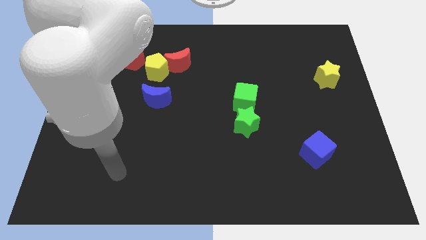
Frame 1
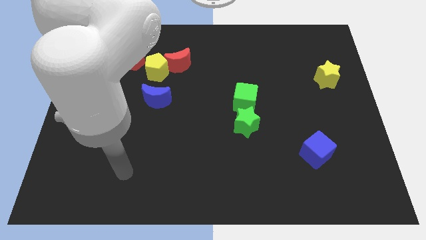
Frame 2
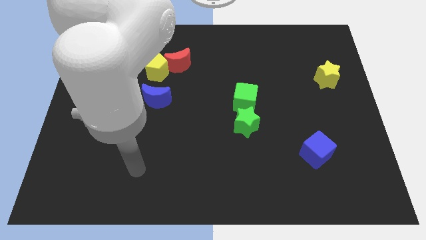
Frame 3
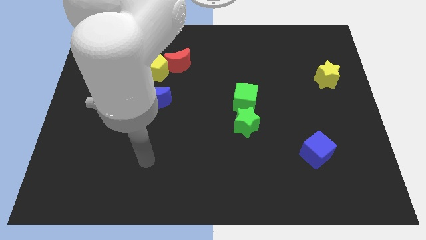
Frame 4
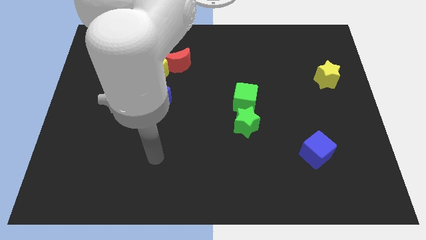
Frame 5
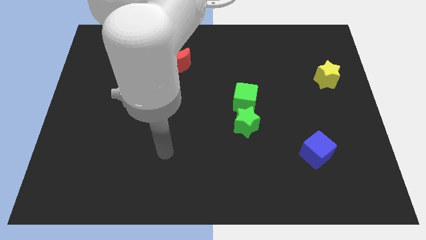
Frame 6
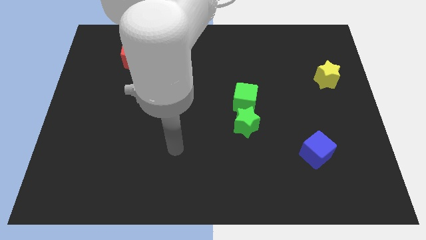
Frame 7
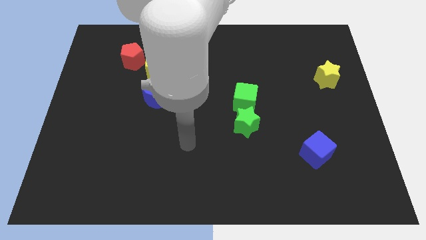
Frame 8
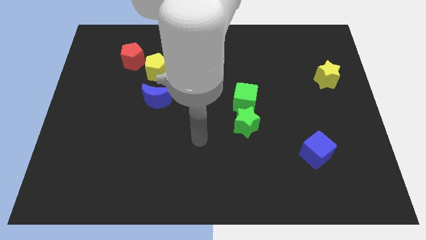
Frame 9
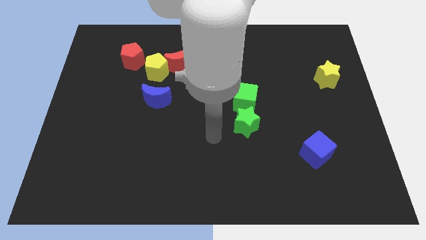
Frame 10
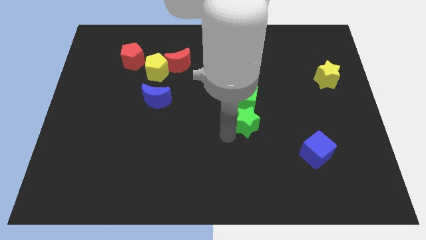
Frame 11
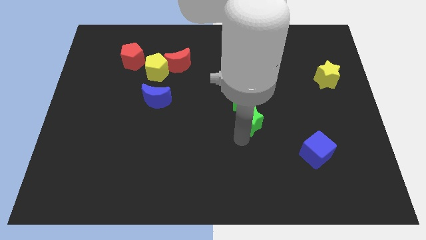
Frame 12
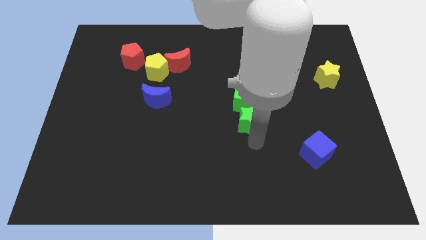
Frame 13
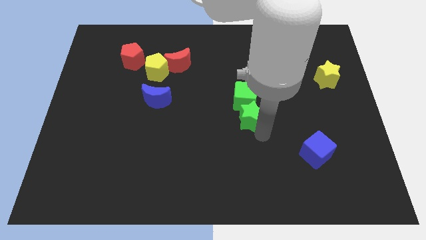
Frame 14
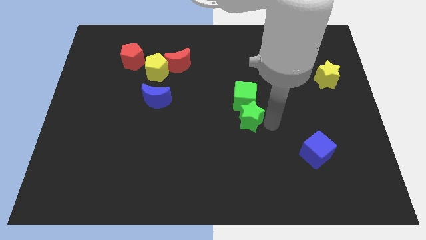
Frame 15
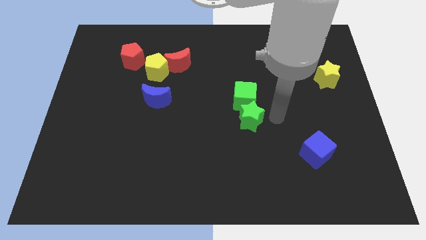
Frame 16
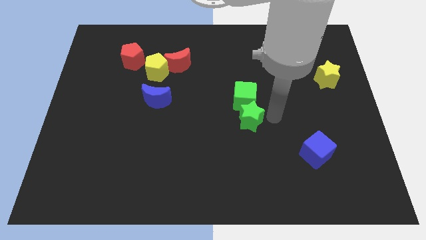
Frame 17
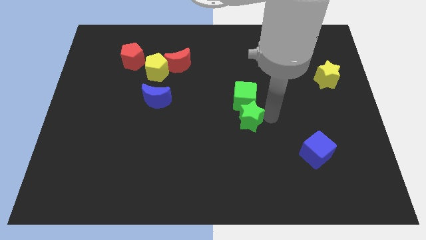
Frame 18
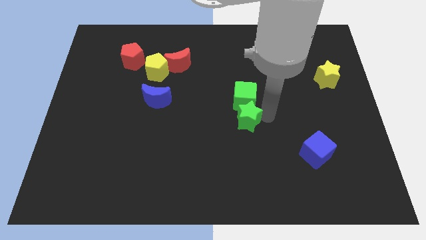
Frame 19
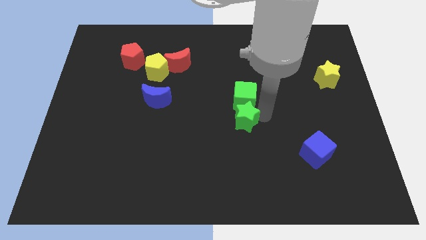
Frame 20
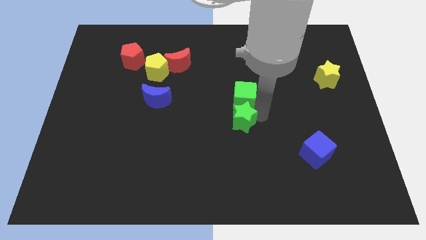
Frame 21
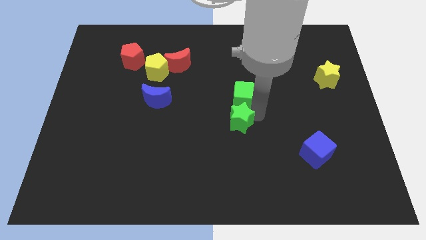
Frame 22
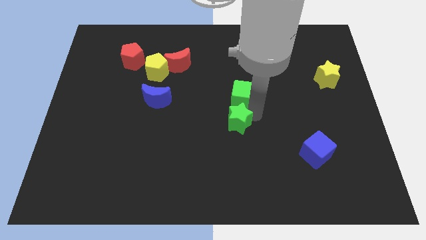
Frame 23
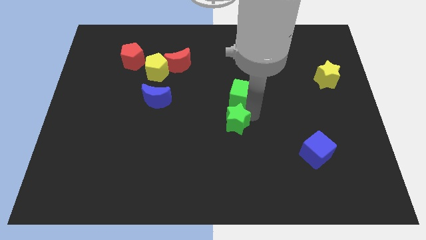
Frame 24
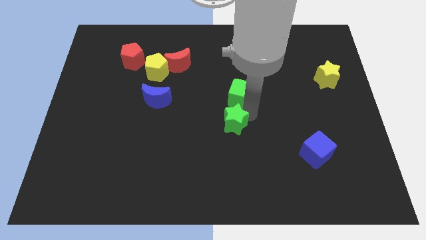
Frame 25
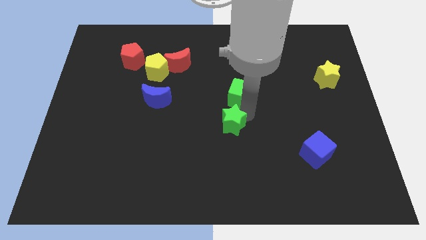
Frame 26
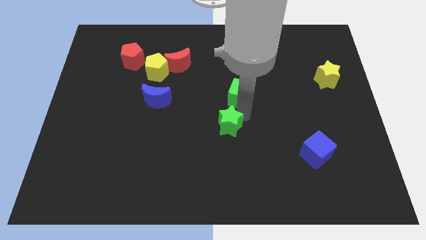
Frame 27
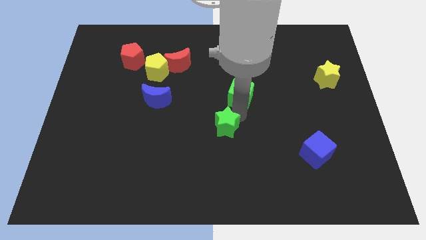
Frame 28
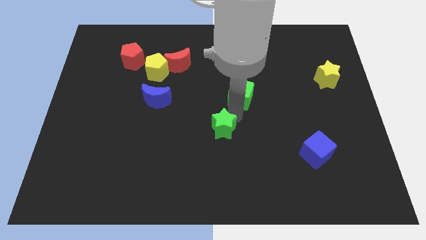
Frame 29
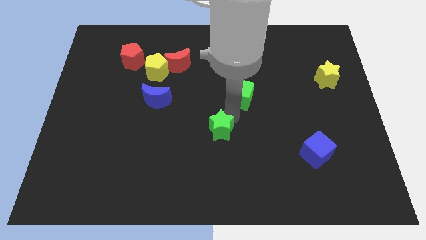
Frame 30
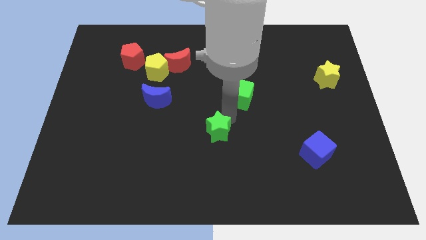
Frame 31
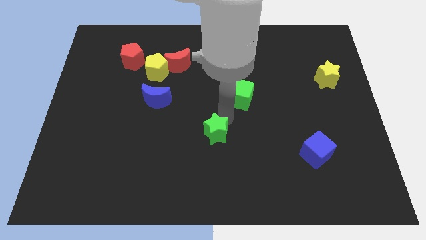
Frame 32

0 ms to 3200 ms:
slightly move the green star to the left

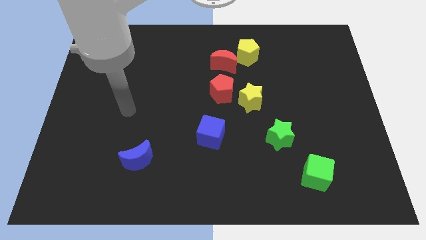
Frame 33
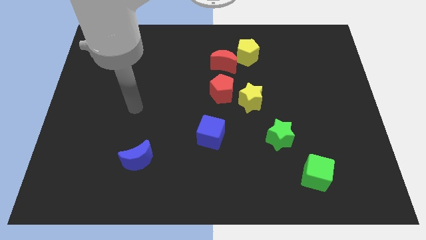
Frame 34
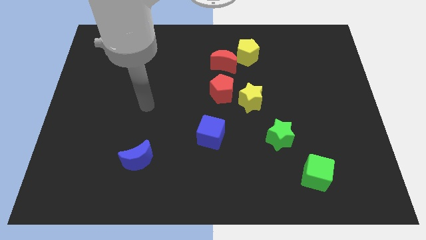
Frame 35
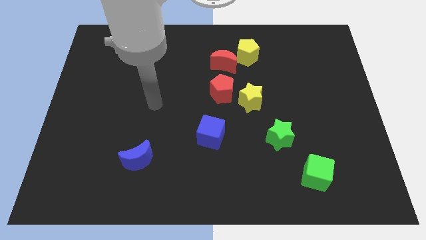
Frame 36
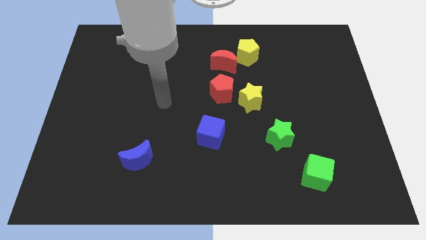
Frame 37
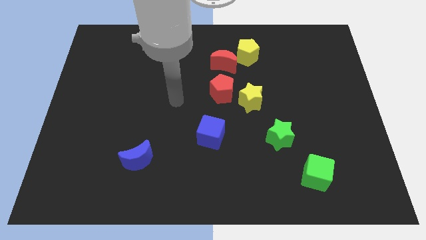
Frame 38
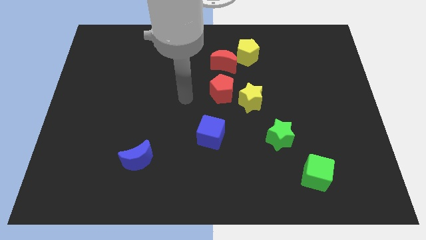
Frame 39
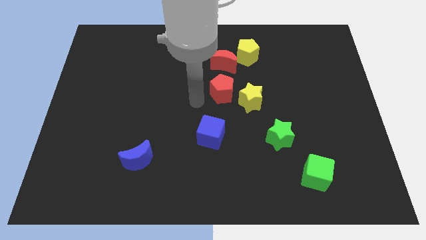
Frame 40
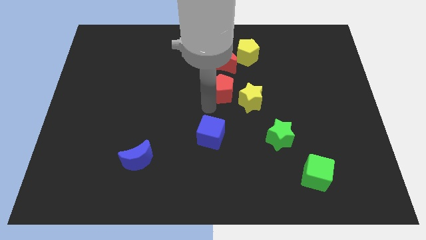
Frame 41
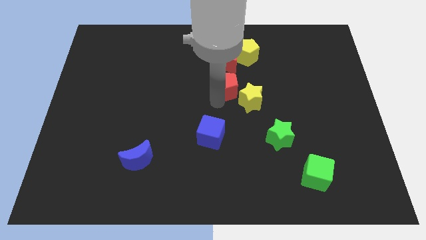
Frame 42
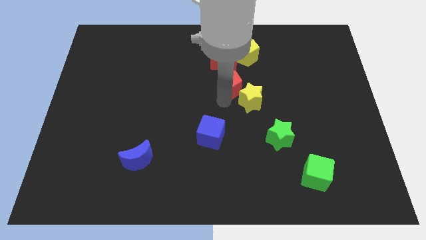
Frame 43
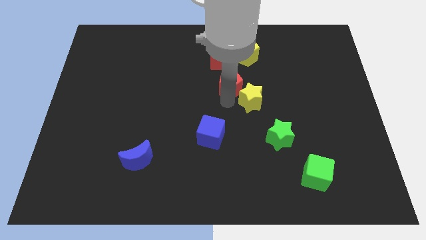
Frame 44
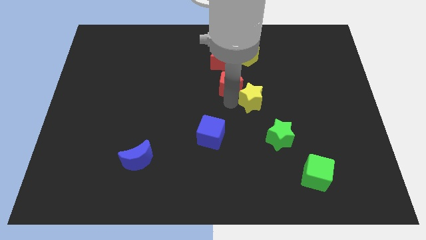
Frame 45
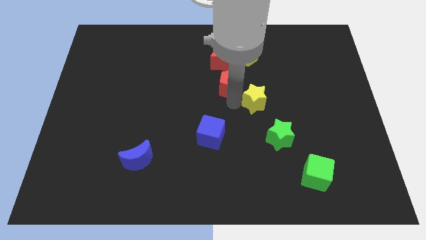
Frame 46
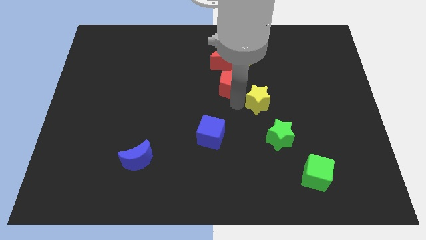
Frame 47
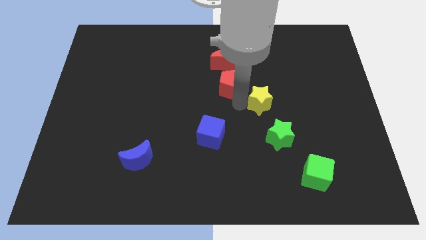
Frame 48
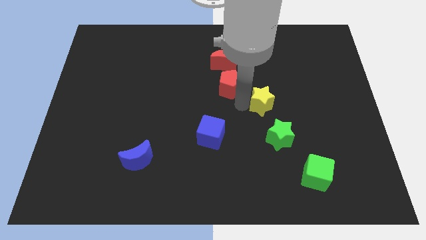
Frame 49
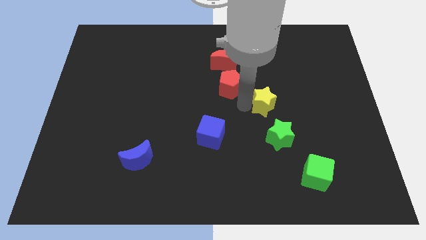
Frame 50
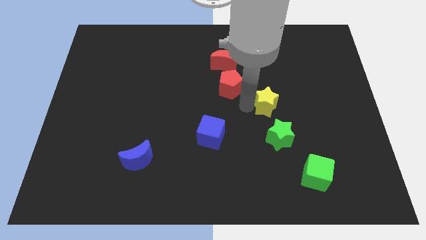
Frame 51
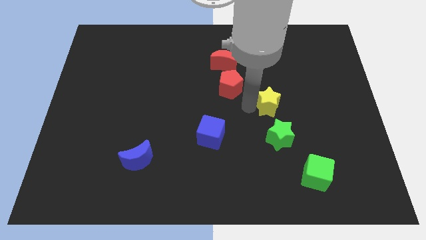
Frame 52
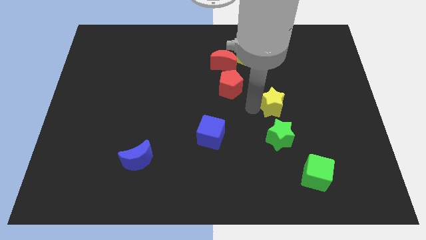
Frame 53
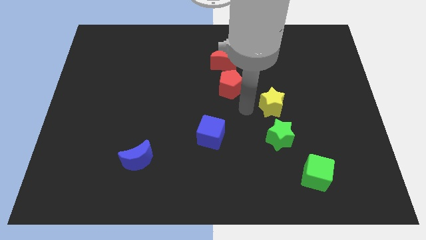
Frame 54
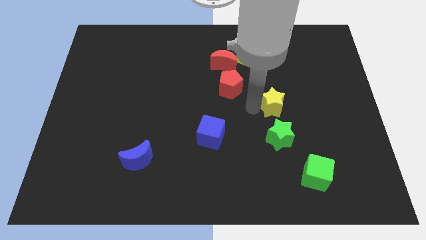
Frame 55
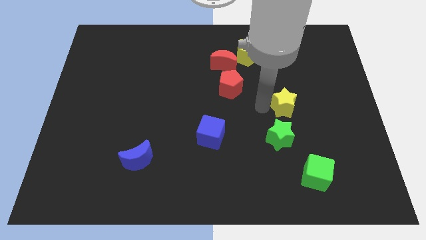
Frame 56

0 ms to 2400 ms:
move the yellow star a little right

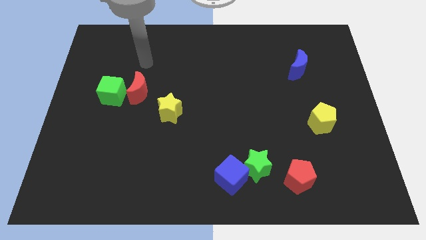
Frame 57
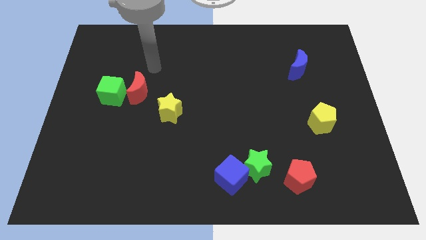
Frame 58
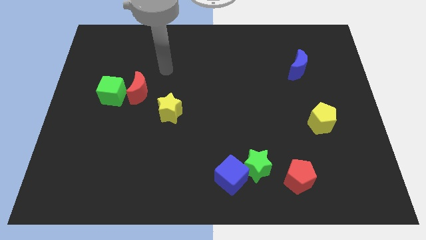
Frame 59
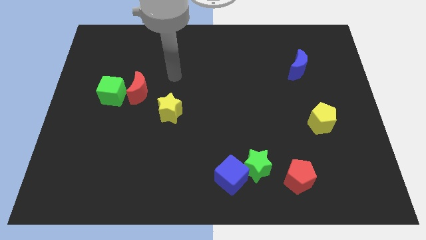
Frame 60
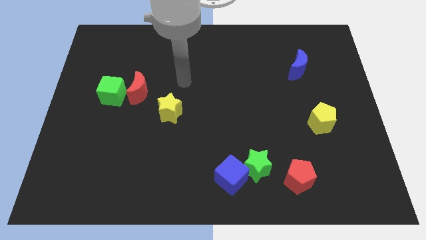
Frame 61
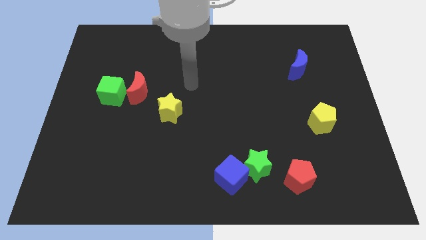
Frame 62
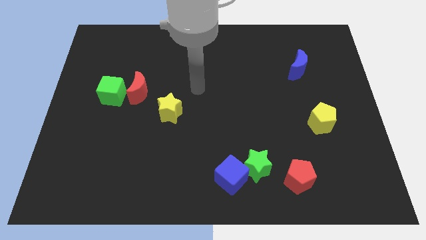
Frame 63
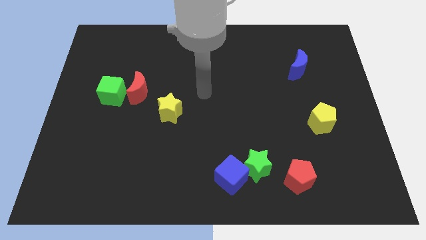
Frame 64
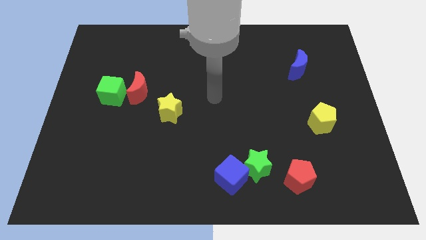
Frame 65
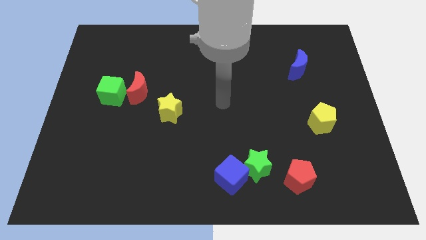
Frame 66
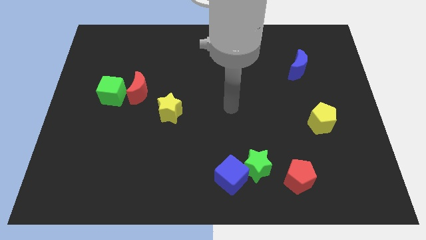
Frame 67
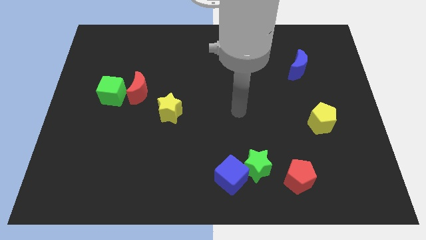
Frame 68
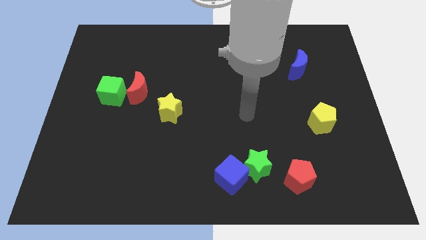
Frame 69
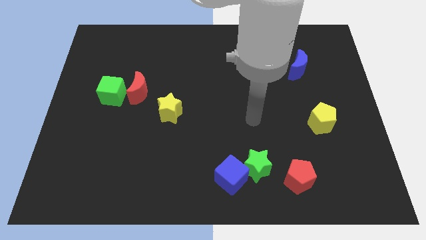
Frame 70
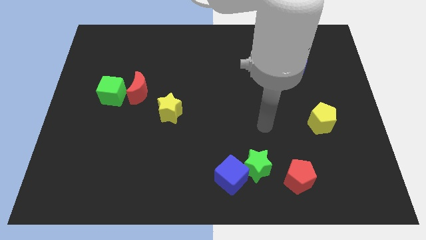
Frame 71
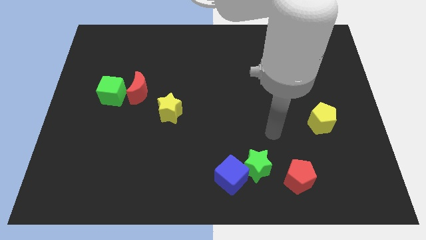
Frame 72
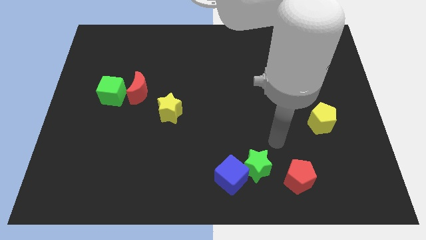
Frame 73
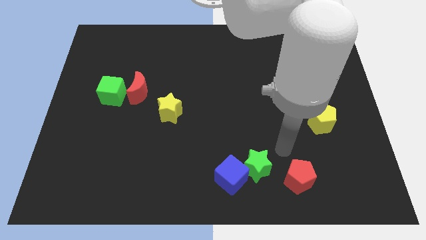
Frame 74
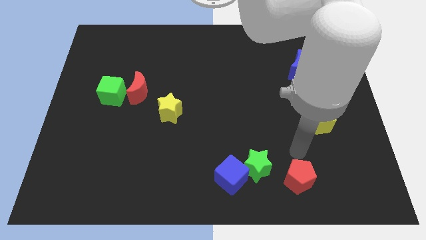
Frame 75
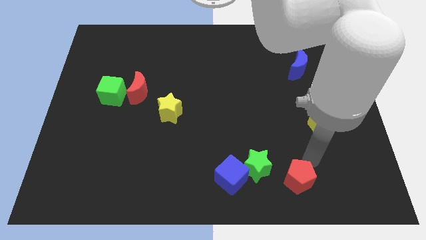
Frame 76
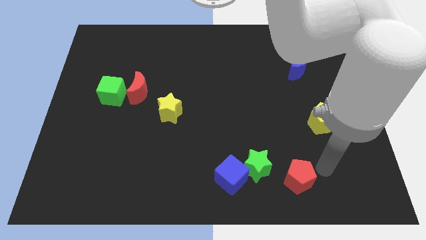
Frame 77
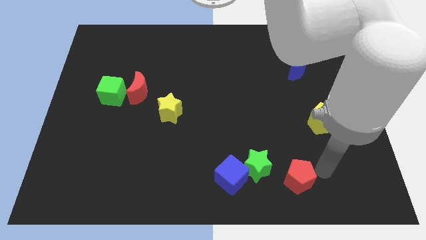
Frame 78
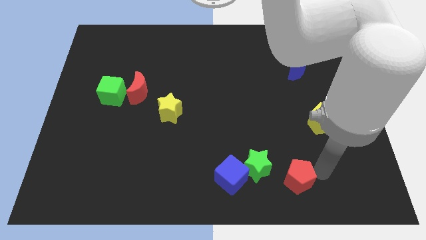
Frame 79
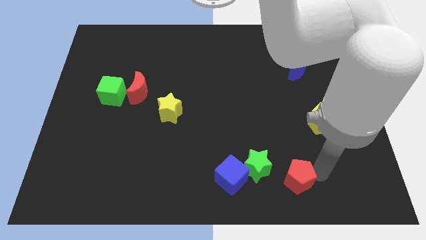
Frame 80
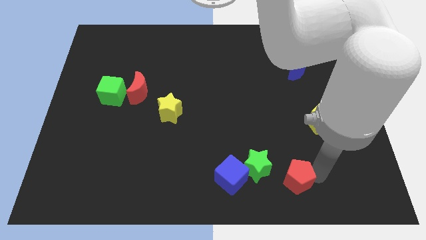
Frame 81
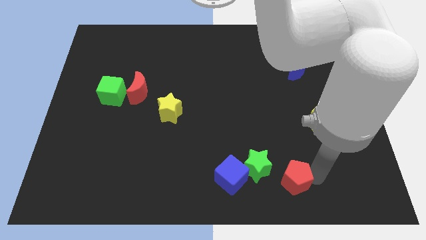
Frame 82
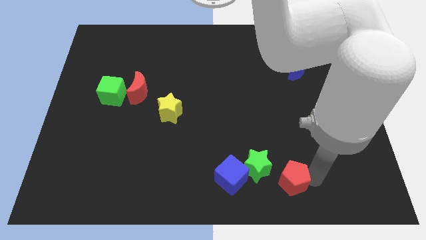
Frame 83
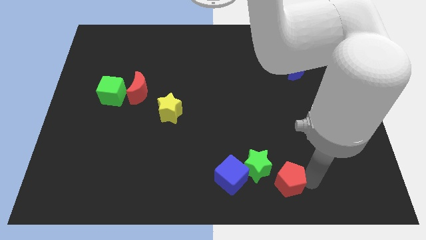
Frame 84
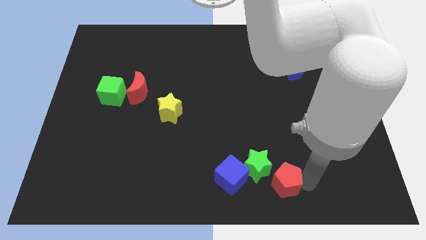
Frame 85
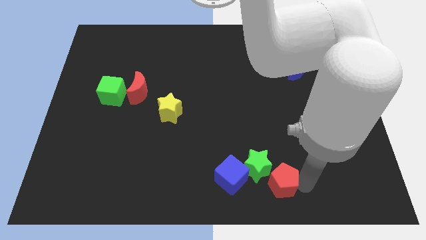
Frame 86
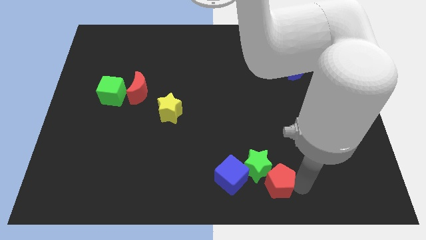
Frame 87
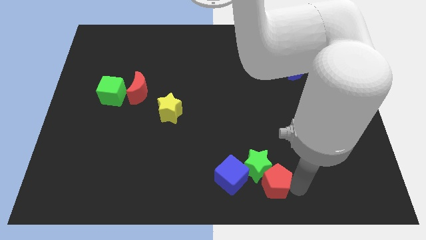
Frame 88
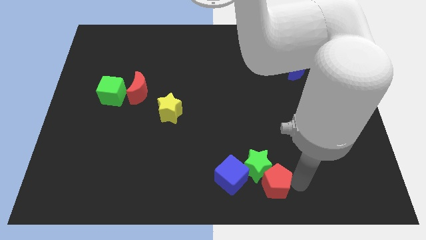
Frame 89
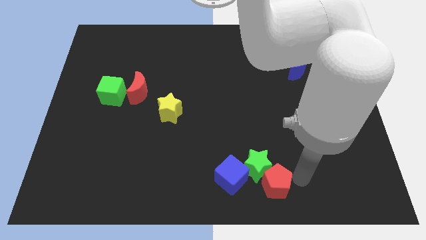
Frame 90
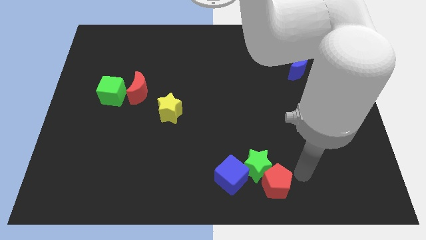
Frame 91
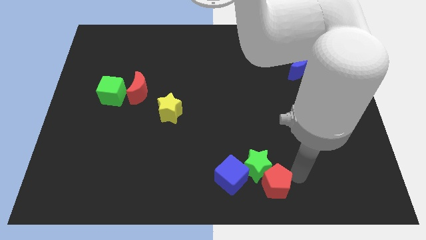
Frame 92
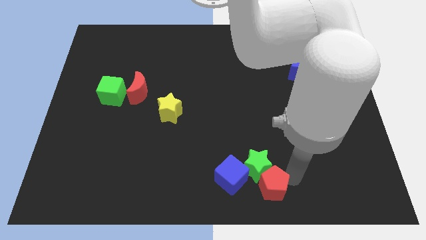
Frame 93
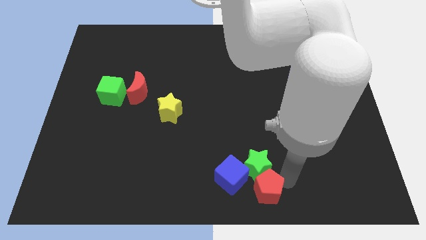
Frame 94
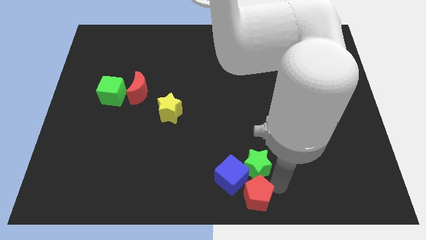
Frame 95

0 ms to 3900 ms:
slightly slide the red pentagon to the left
